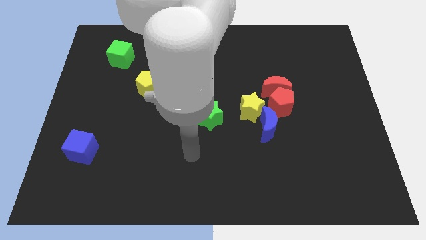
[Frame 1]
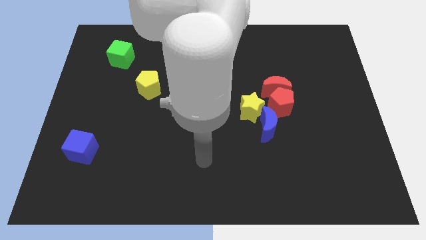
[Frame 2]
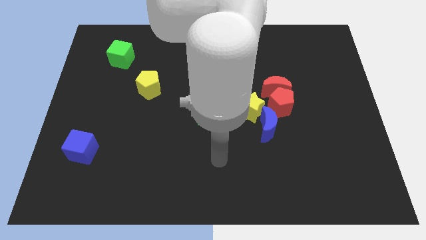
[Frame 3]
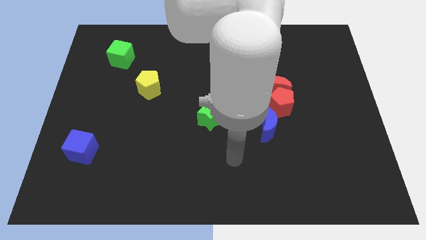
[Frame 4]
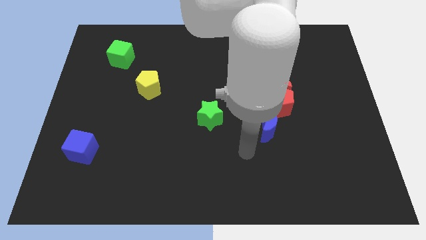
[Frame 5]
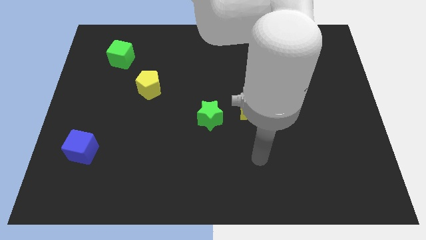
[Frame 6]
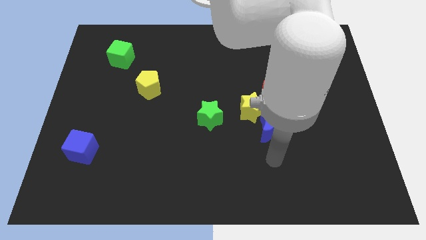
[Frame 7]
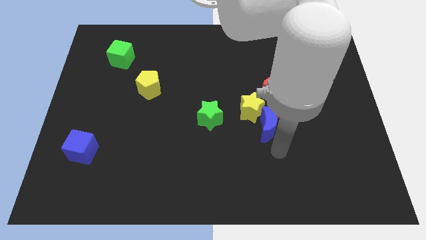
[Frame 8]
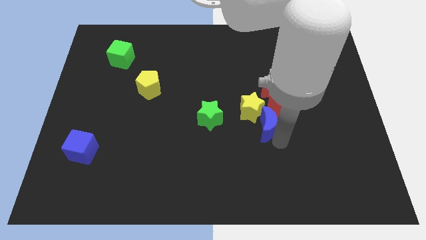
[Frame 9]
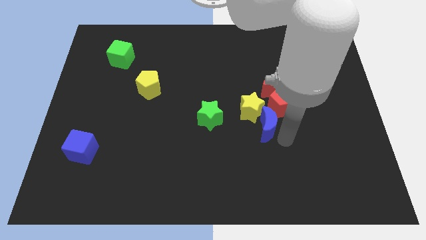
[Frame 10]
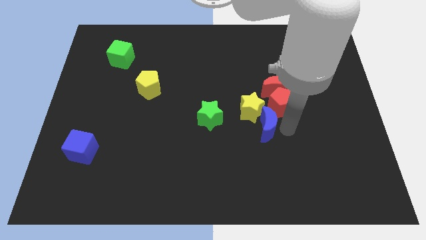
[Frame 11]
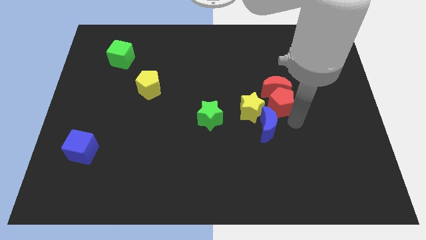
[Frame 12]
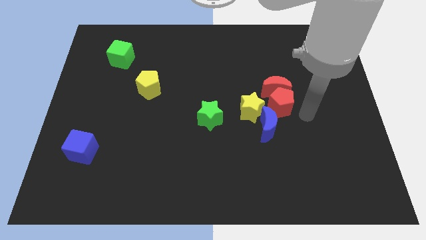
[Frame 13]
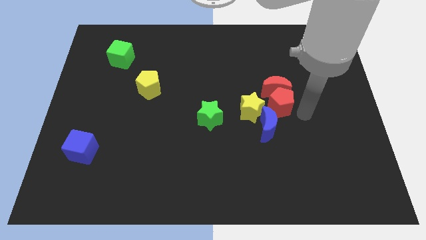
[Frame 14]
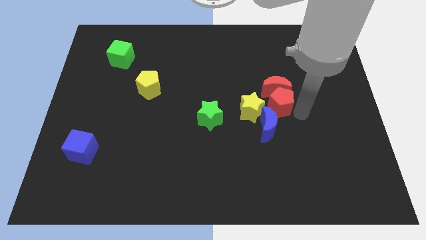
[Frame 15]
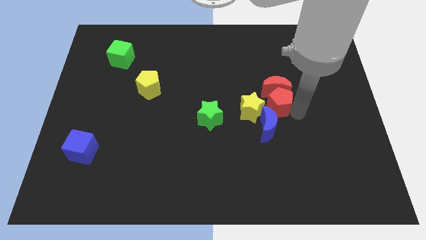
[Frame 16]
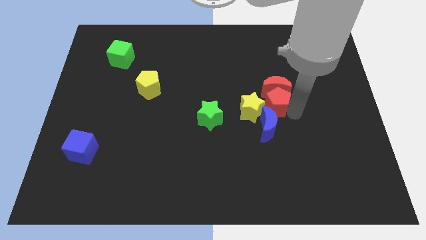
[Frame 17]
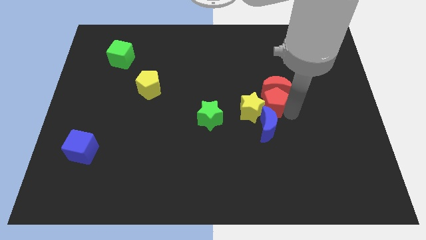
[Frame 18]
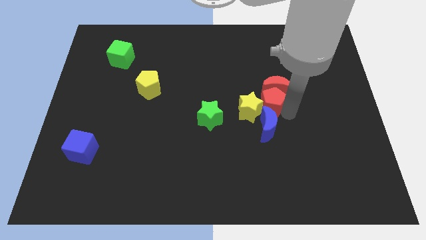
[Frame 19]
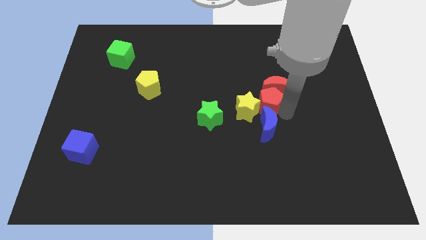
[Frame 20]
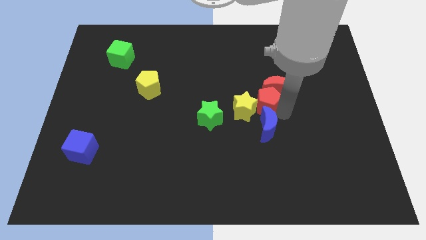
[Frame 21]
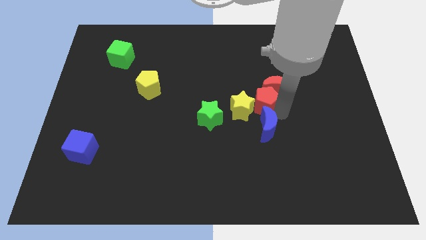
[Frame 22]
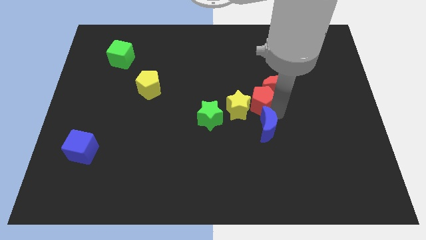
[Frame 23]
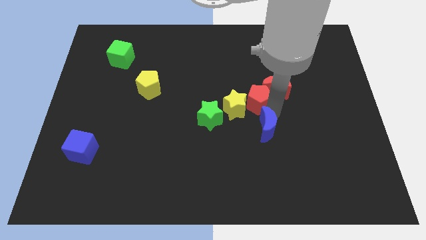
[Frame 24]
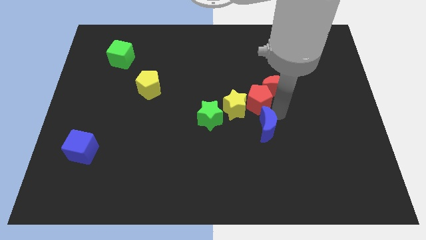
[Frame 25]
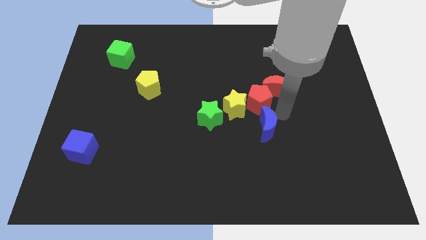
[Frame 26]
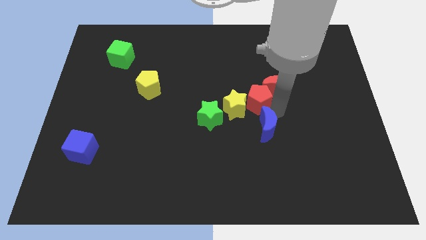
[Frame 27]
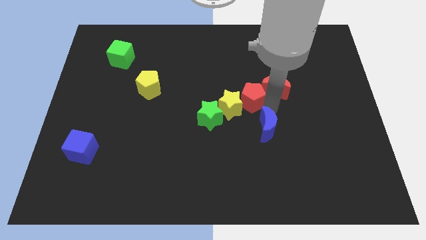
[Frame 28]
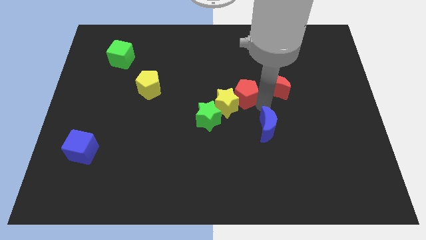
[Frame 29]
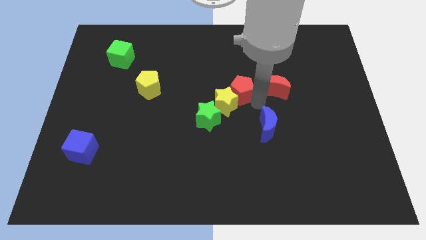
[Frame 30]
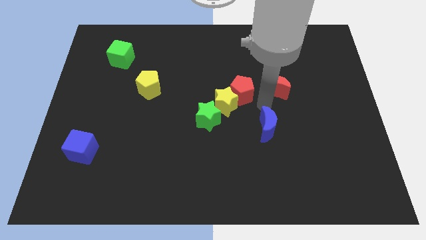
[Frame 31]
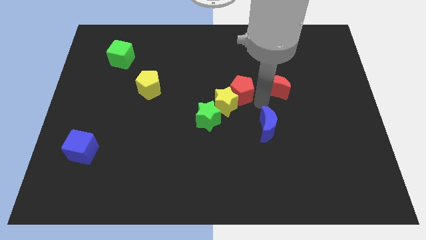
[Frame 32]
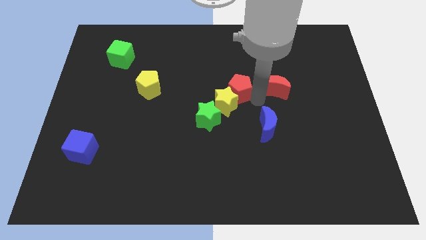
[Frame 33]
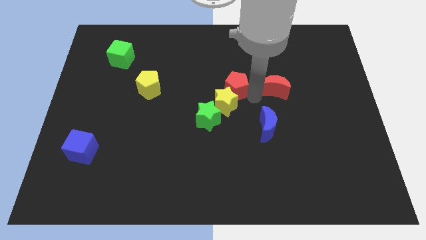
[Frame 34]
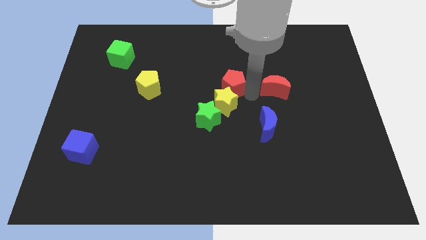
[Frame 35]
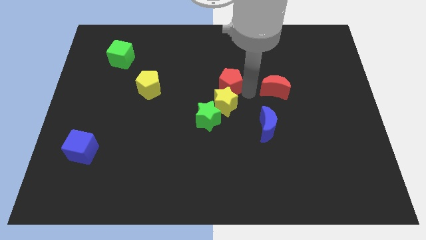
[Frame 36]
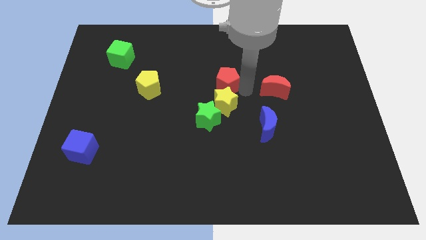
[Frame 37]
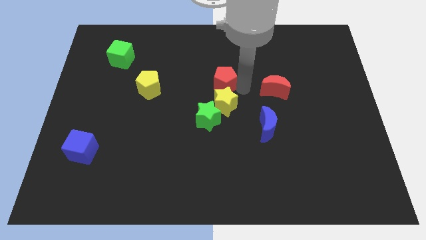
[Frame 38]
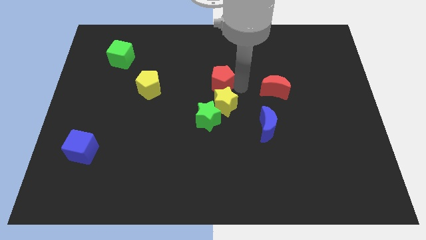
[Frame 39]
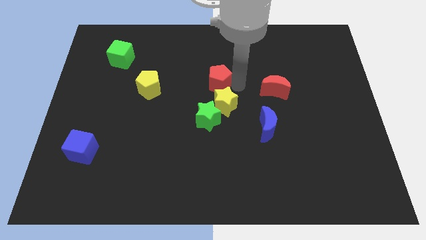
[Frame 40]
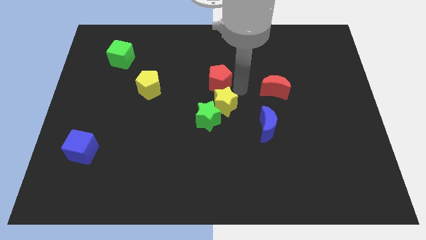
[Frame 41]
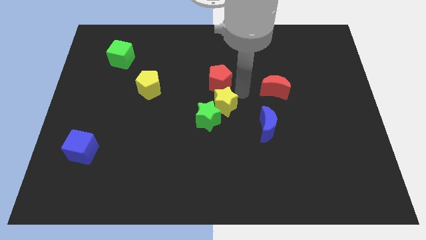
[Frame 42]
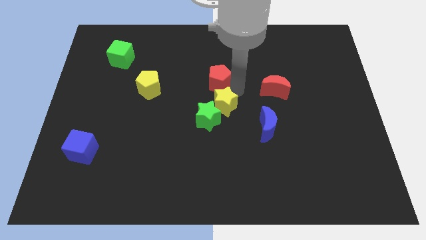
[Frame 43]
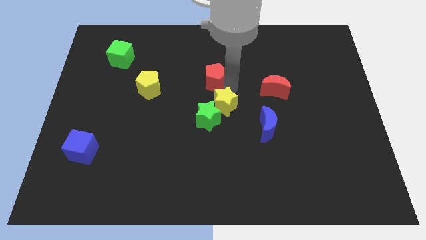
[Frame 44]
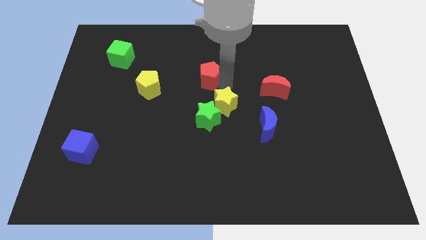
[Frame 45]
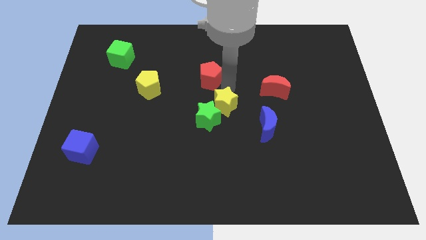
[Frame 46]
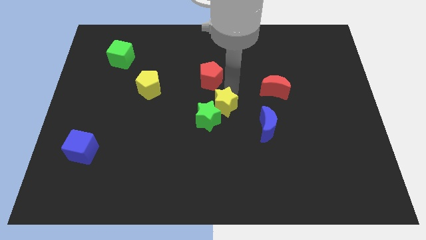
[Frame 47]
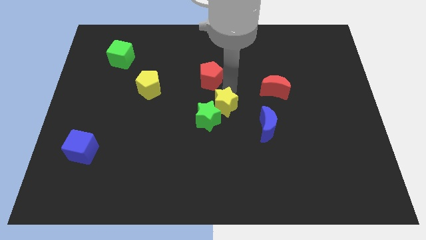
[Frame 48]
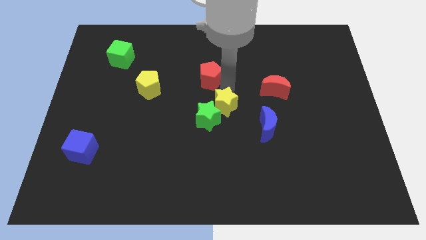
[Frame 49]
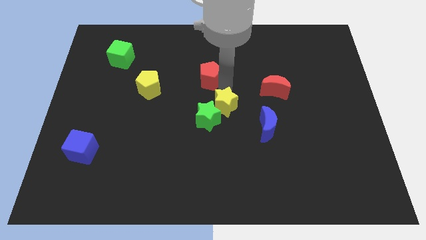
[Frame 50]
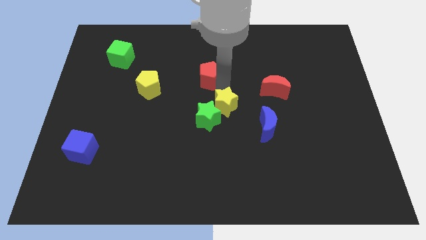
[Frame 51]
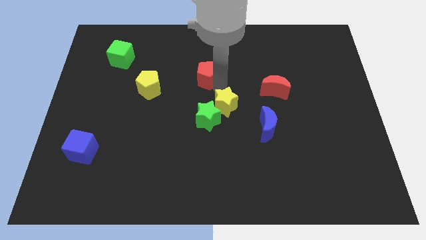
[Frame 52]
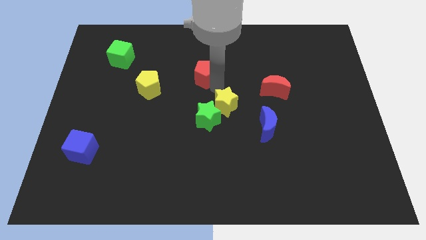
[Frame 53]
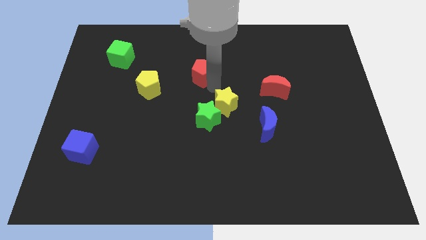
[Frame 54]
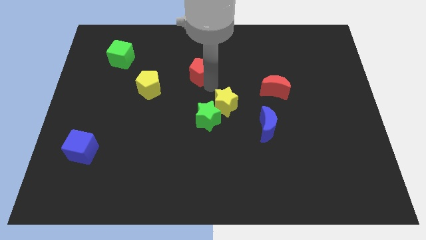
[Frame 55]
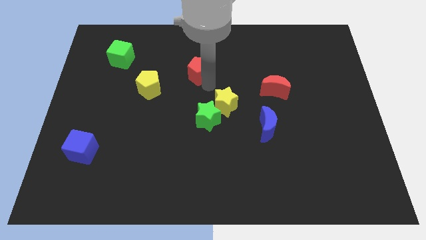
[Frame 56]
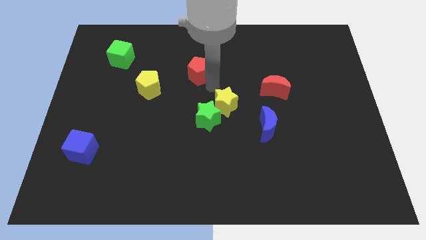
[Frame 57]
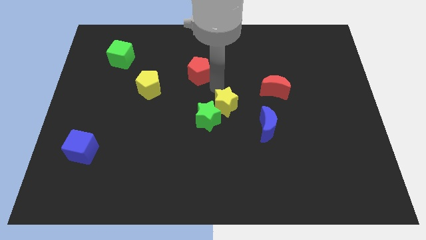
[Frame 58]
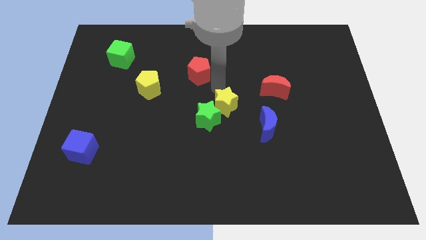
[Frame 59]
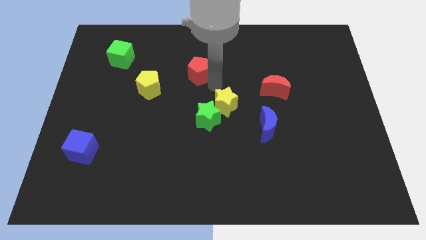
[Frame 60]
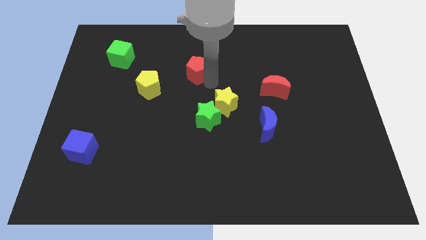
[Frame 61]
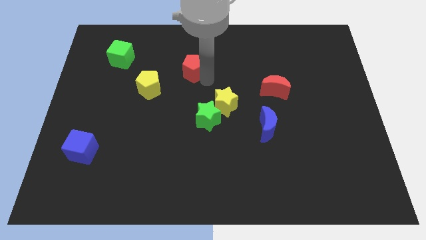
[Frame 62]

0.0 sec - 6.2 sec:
move the red pentagon to the top right of the yellow pentagon

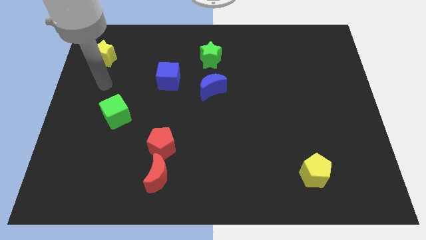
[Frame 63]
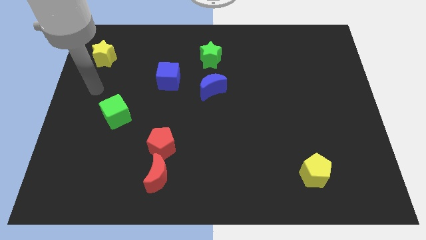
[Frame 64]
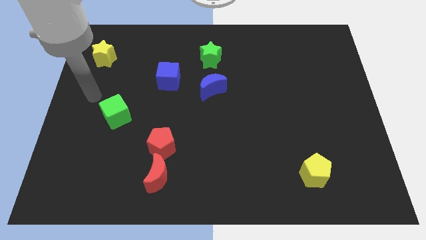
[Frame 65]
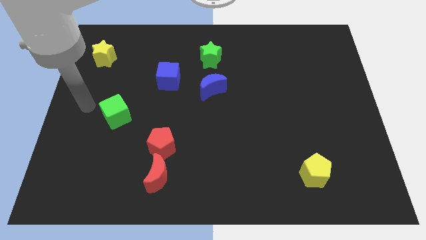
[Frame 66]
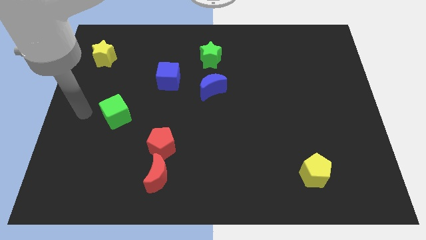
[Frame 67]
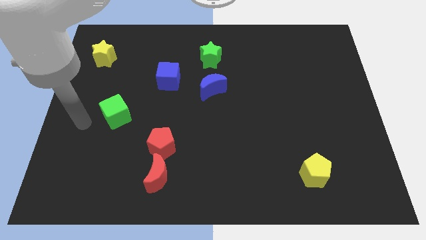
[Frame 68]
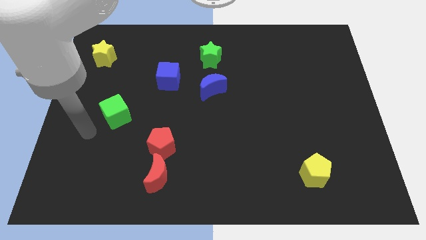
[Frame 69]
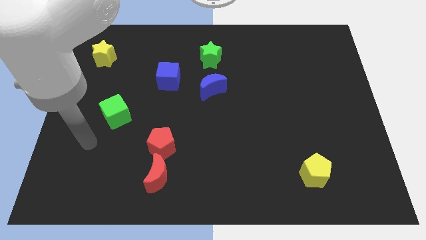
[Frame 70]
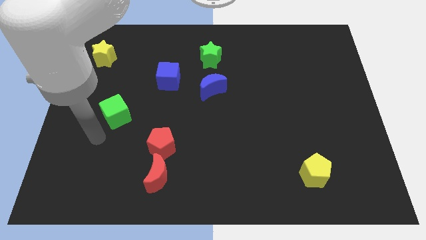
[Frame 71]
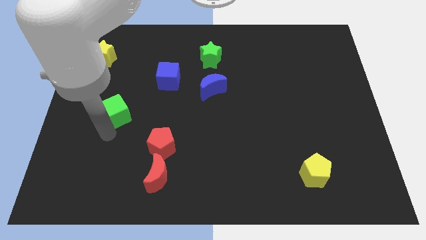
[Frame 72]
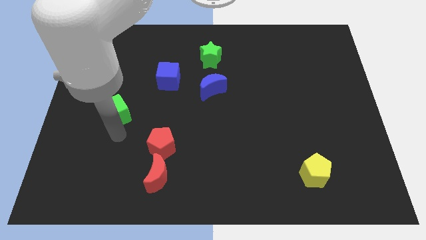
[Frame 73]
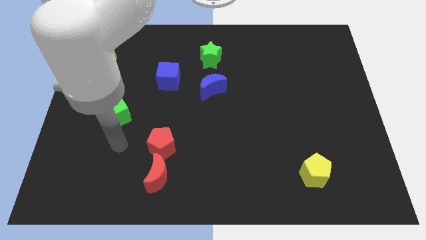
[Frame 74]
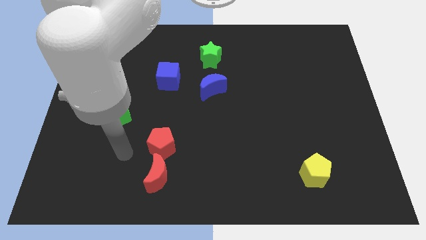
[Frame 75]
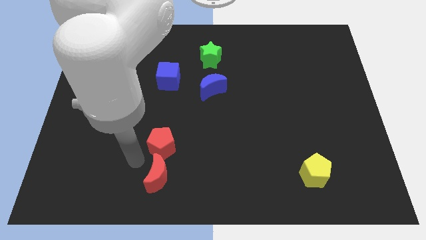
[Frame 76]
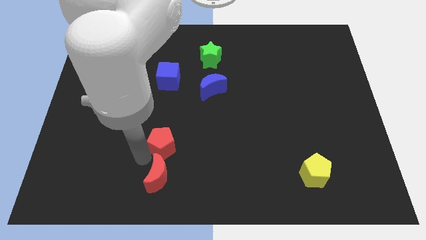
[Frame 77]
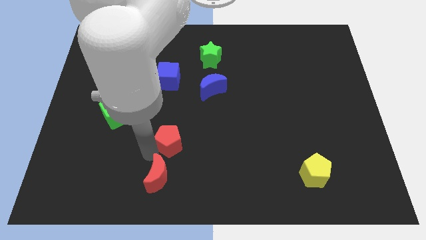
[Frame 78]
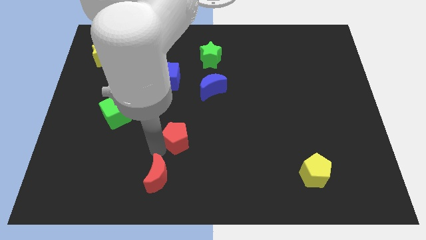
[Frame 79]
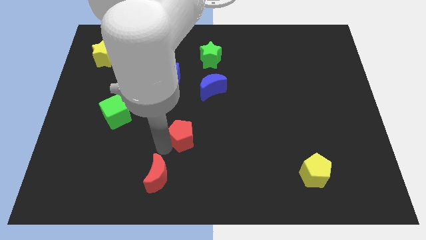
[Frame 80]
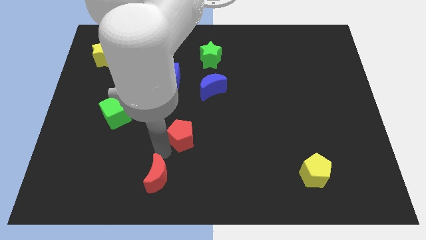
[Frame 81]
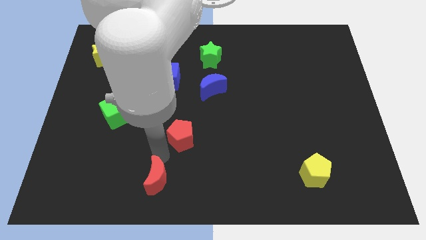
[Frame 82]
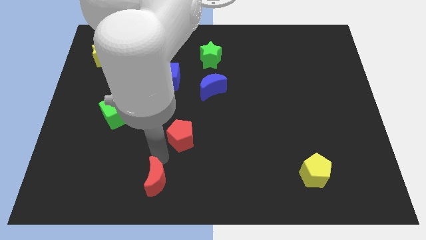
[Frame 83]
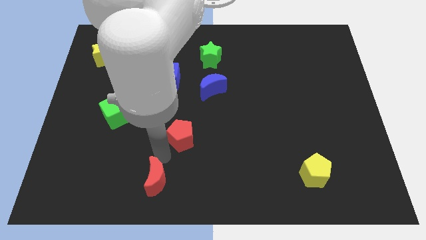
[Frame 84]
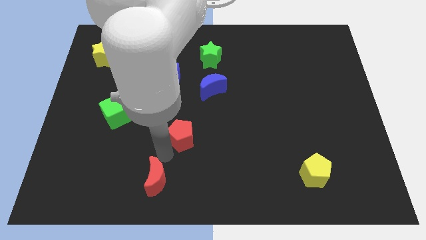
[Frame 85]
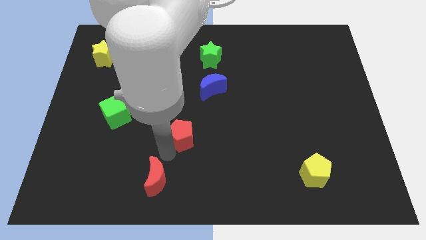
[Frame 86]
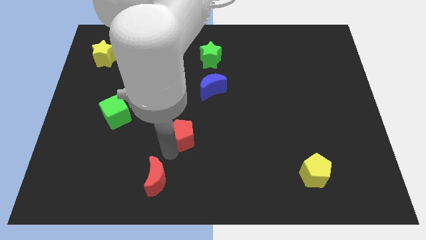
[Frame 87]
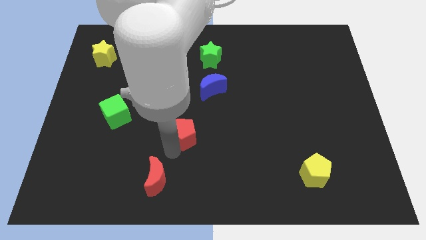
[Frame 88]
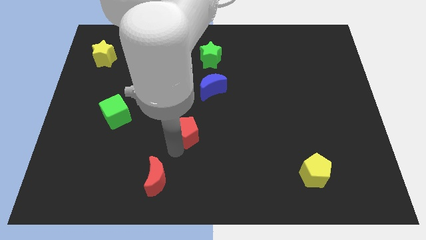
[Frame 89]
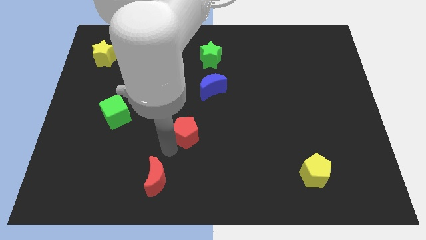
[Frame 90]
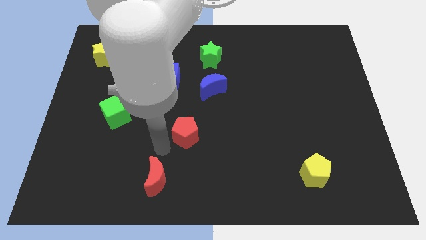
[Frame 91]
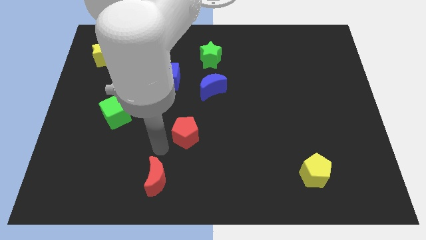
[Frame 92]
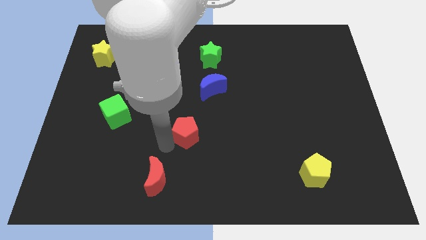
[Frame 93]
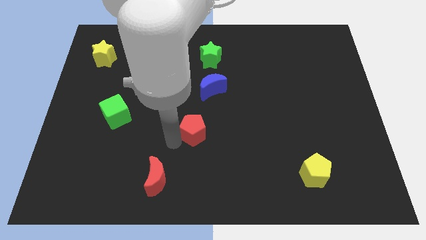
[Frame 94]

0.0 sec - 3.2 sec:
move the red pentagon to the bottom side of the blue moon
